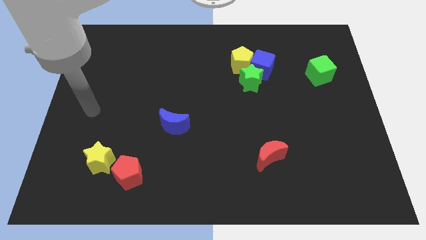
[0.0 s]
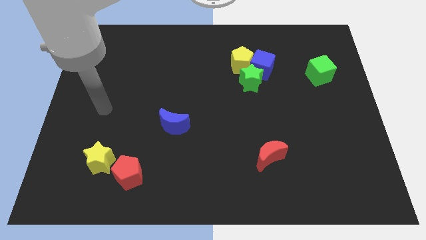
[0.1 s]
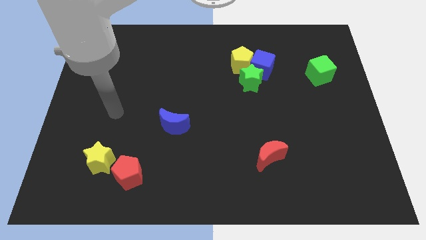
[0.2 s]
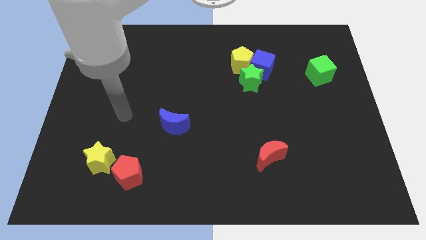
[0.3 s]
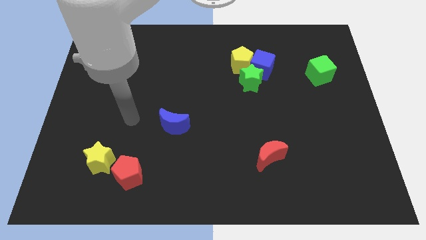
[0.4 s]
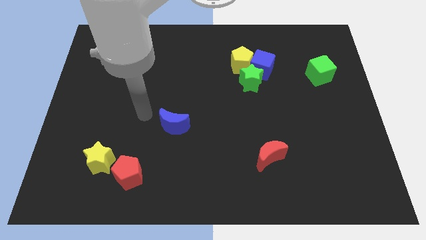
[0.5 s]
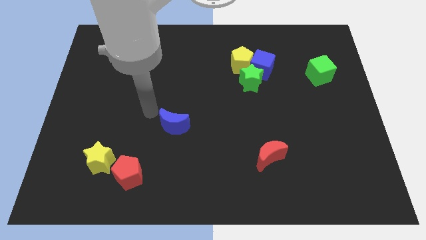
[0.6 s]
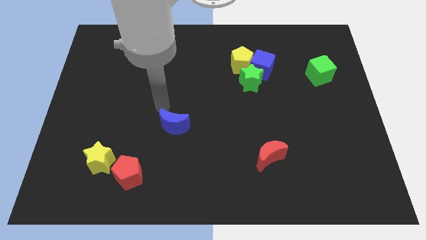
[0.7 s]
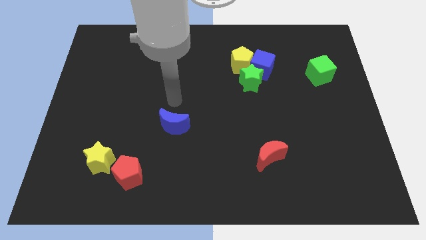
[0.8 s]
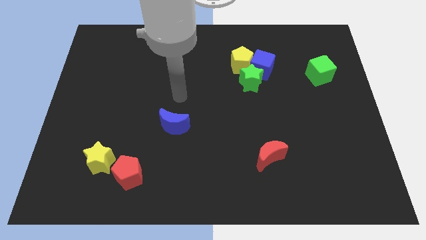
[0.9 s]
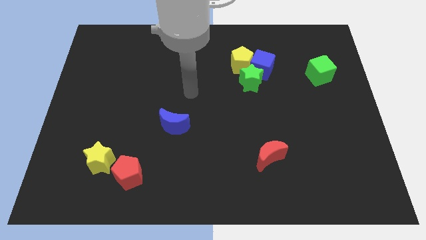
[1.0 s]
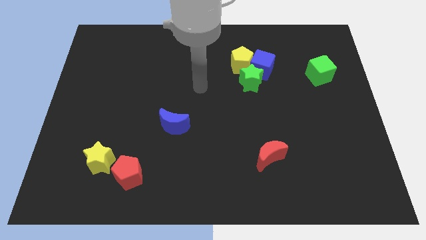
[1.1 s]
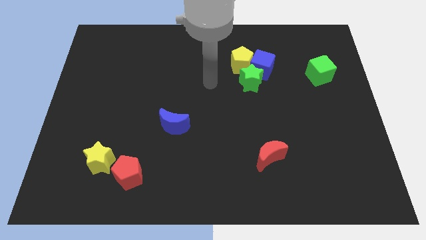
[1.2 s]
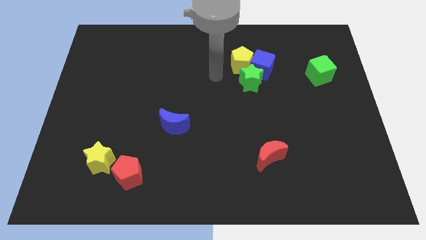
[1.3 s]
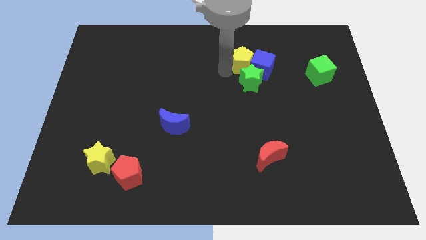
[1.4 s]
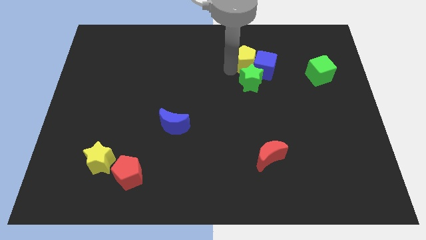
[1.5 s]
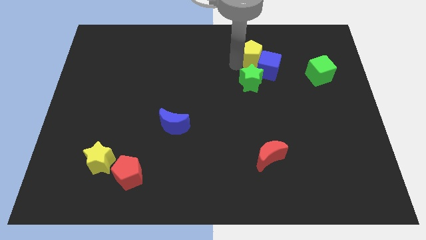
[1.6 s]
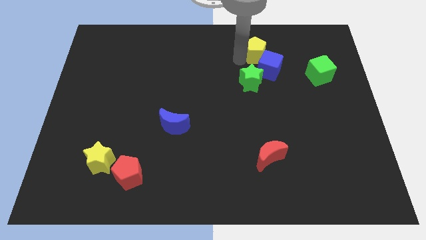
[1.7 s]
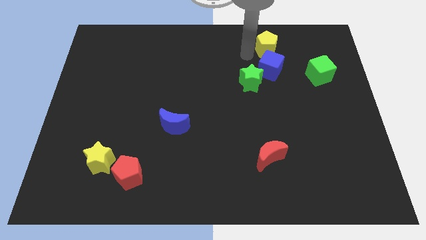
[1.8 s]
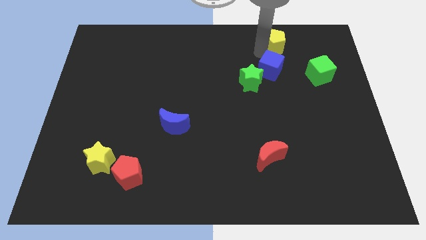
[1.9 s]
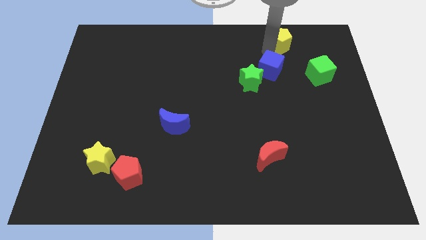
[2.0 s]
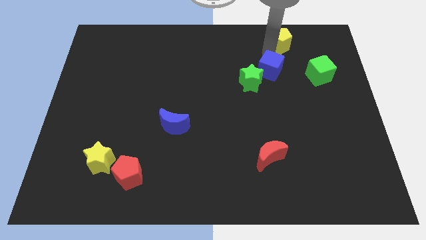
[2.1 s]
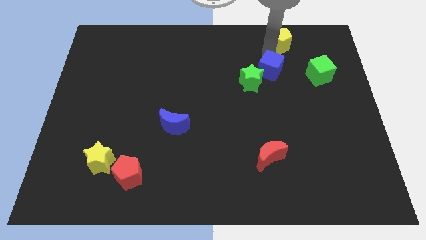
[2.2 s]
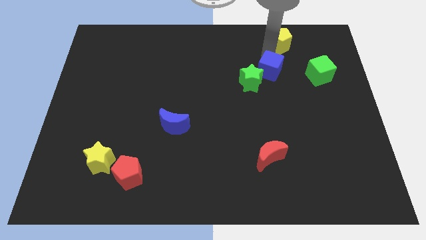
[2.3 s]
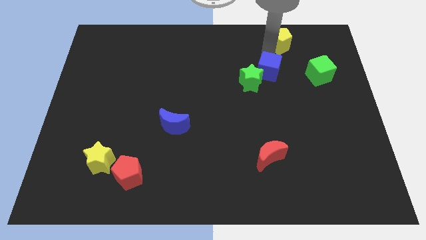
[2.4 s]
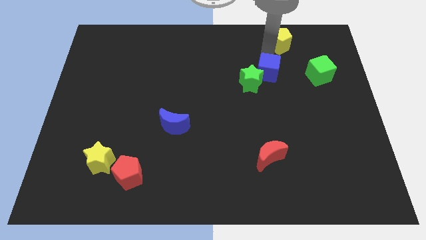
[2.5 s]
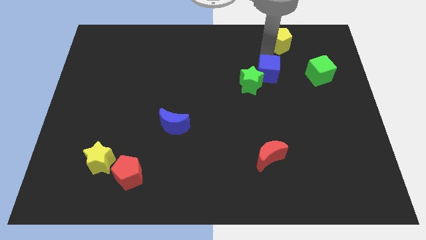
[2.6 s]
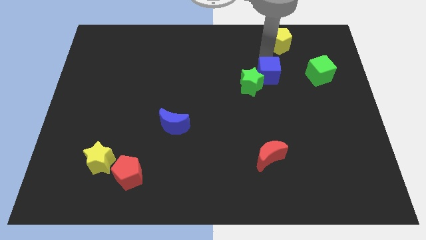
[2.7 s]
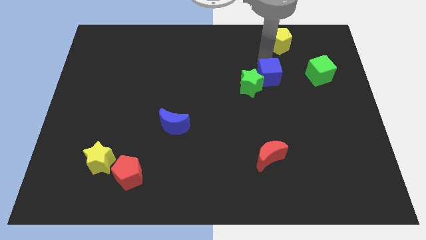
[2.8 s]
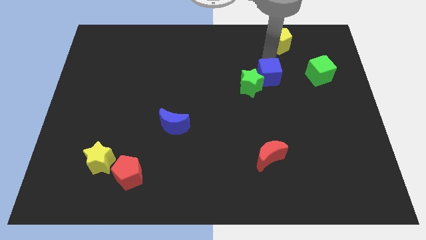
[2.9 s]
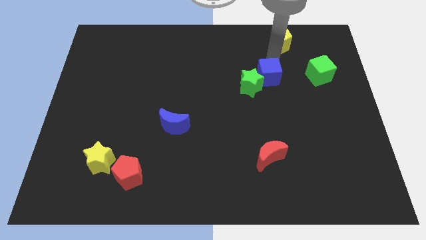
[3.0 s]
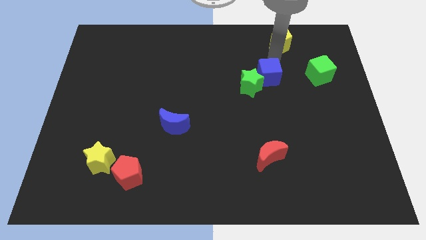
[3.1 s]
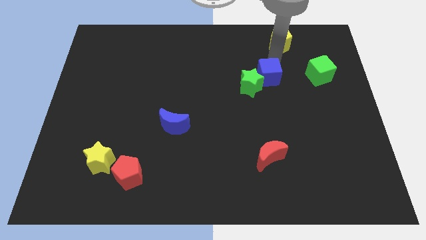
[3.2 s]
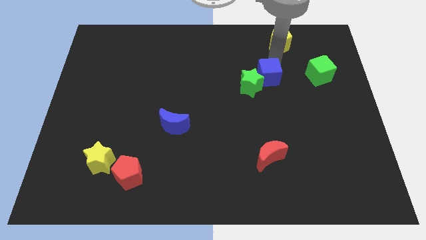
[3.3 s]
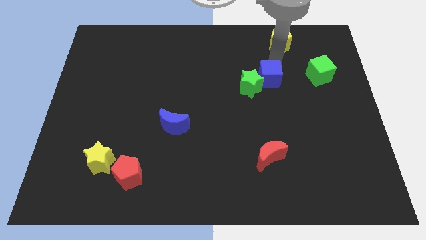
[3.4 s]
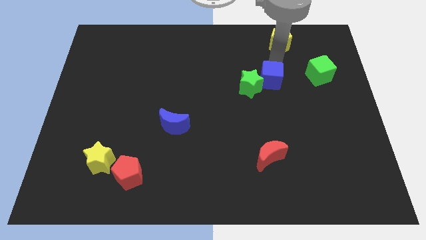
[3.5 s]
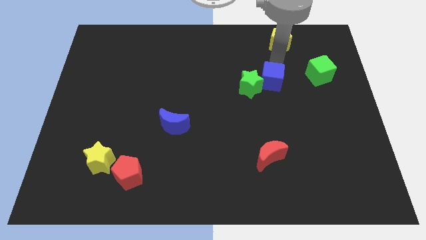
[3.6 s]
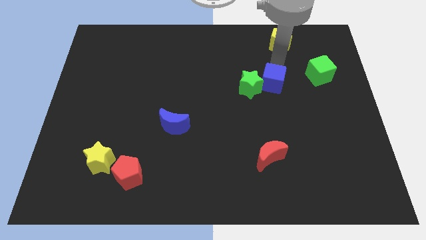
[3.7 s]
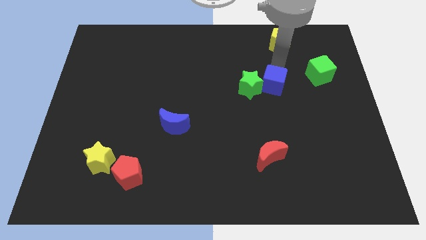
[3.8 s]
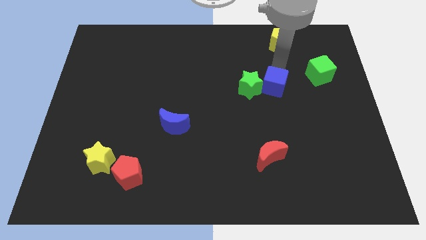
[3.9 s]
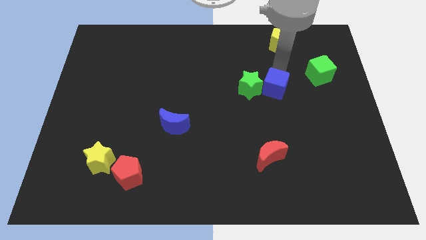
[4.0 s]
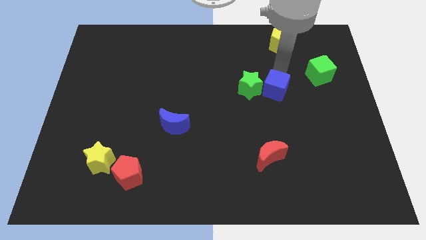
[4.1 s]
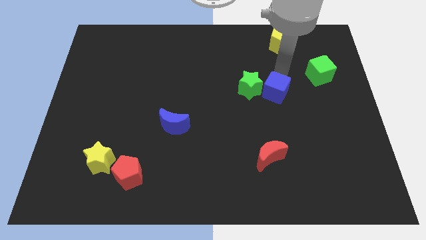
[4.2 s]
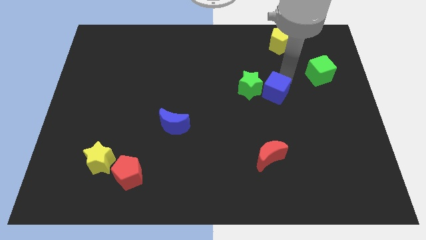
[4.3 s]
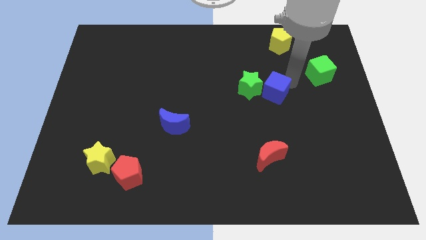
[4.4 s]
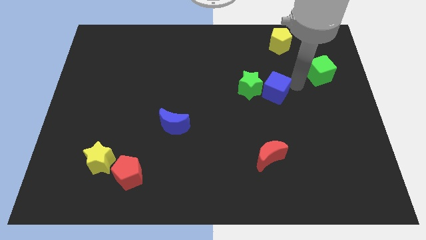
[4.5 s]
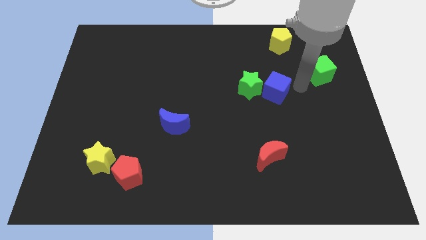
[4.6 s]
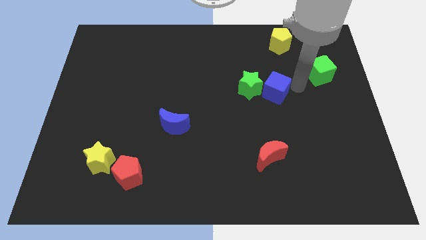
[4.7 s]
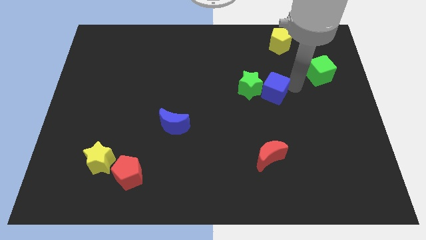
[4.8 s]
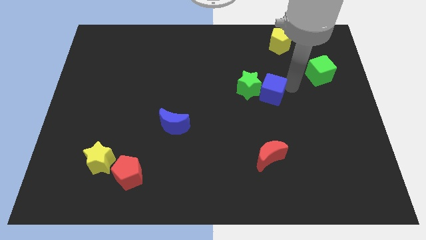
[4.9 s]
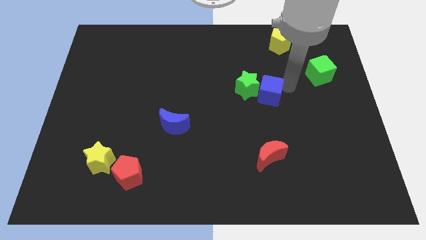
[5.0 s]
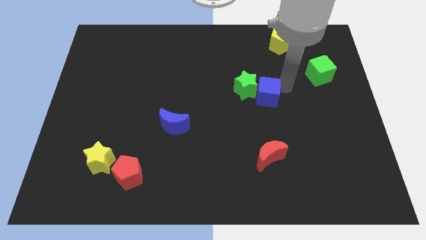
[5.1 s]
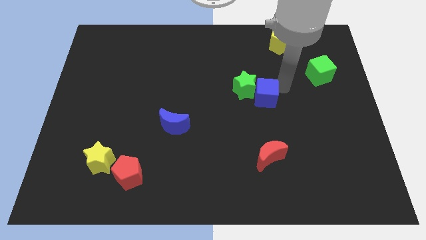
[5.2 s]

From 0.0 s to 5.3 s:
put the blue cube to the middle

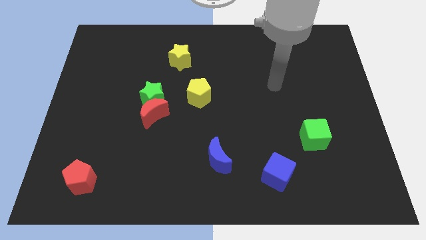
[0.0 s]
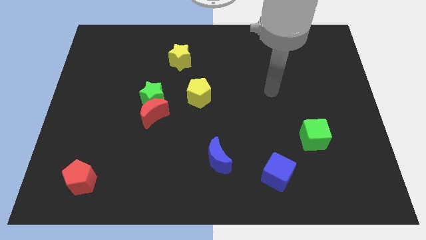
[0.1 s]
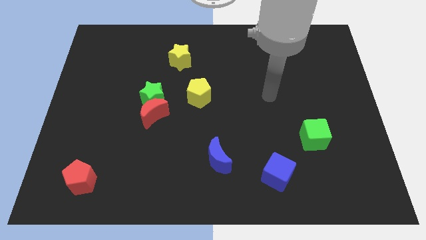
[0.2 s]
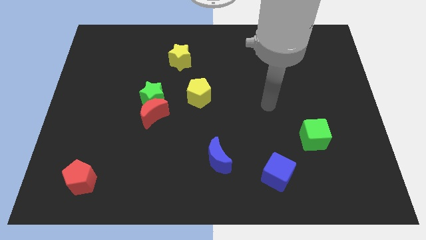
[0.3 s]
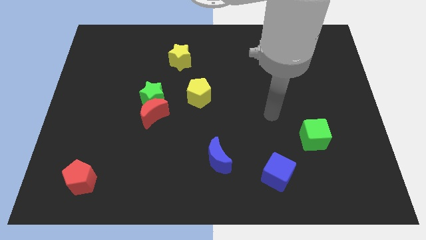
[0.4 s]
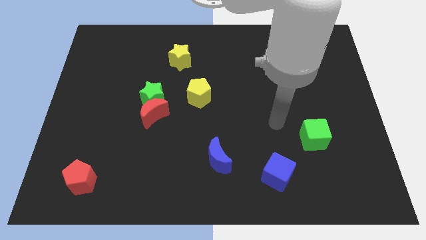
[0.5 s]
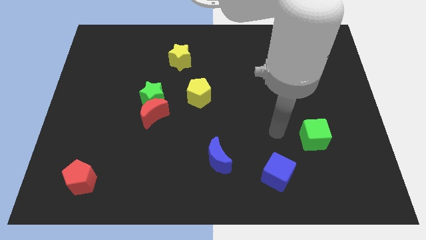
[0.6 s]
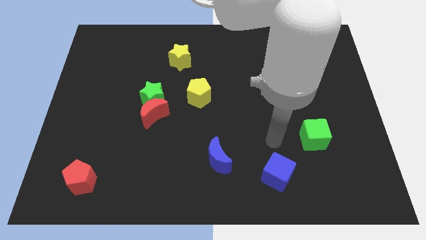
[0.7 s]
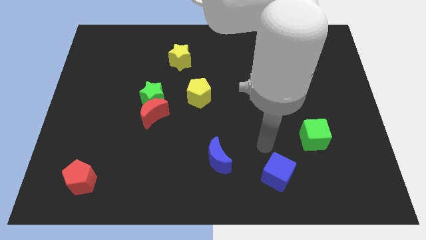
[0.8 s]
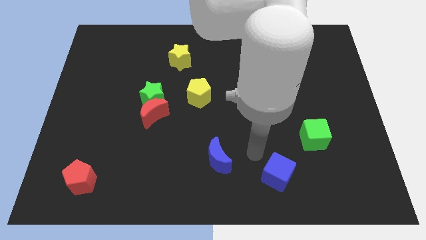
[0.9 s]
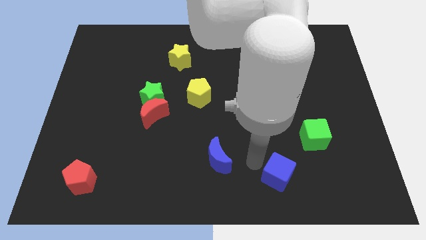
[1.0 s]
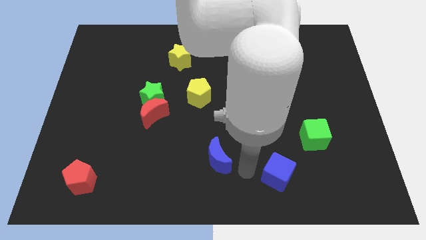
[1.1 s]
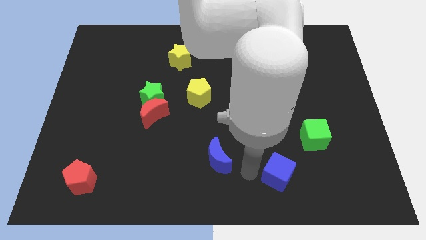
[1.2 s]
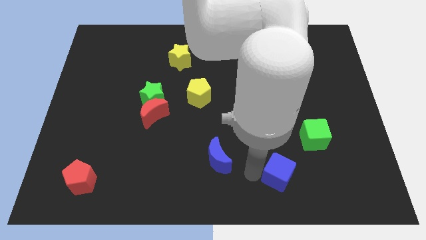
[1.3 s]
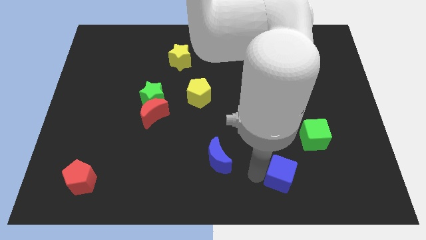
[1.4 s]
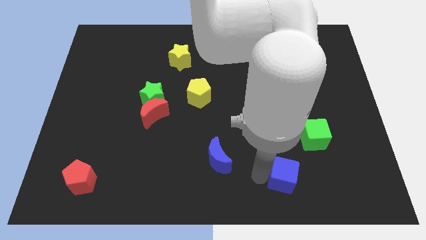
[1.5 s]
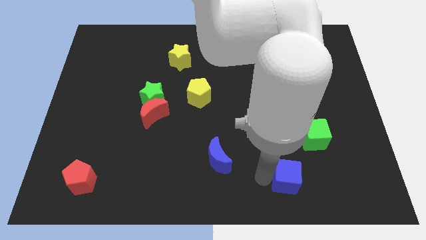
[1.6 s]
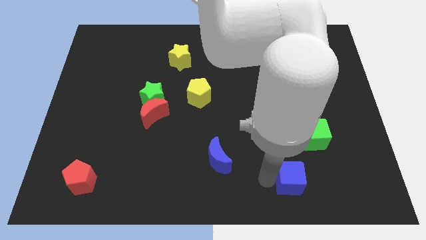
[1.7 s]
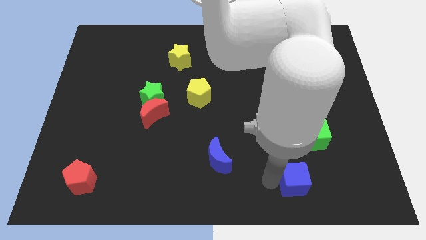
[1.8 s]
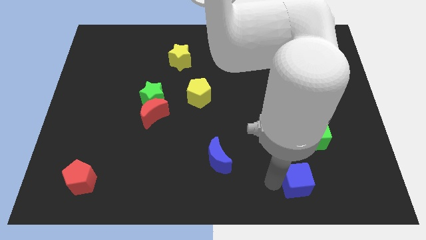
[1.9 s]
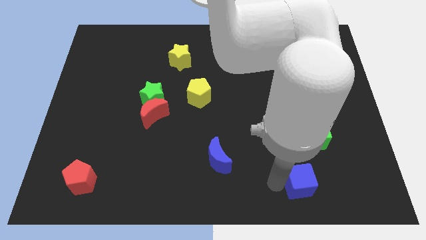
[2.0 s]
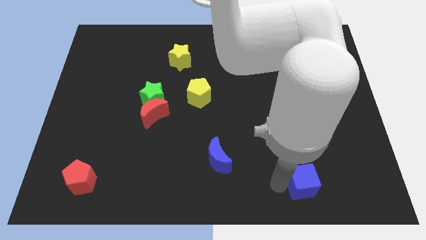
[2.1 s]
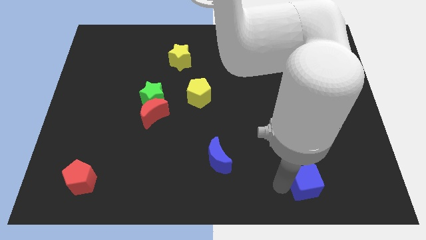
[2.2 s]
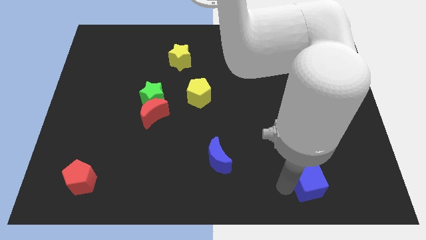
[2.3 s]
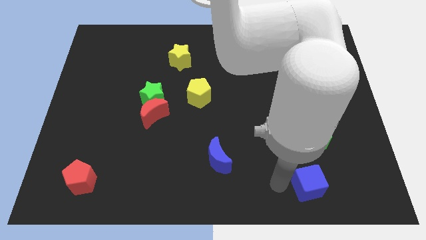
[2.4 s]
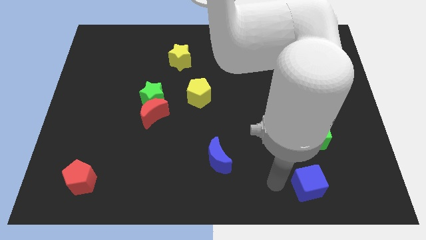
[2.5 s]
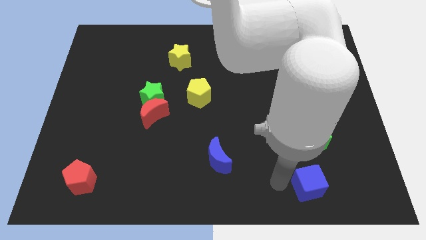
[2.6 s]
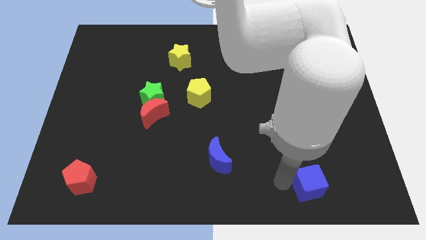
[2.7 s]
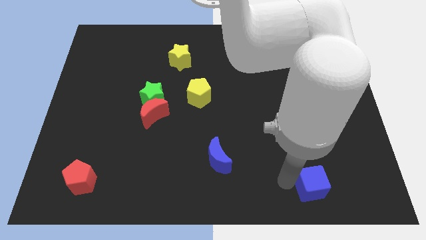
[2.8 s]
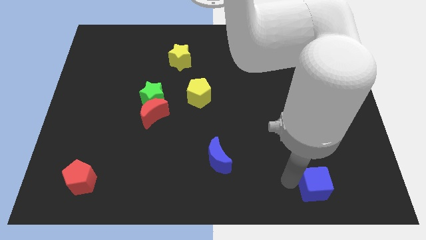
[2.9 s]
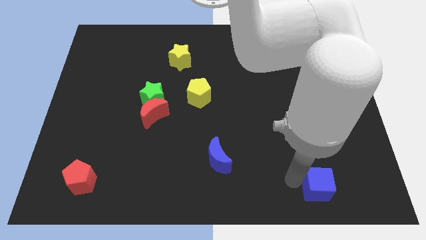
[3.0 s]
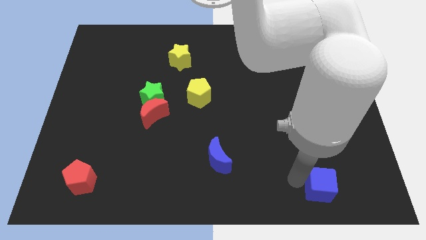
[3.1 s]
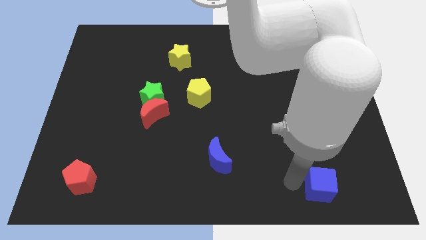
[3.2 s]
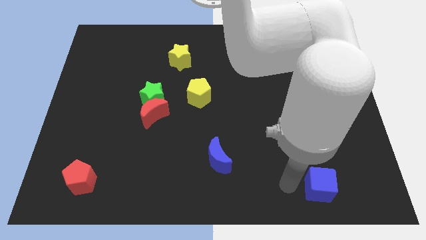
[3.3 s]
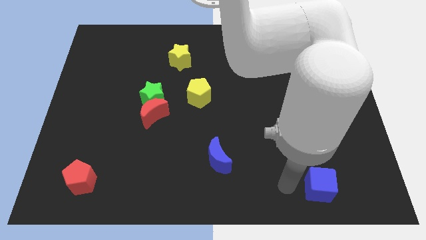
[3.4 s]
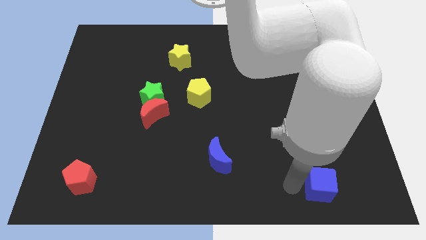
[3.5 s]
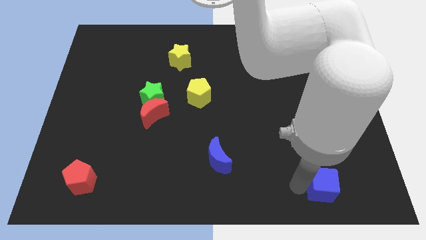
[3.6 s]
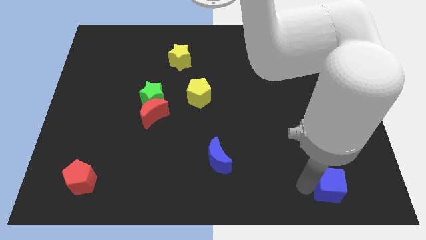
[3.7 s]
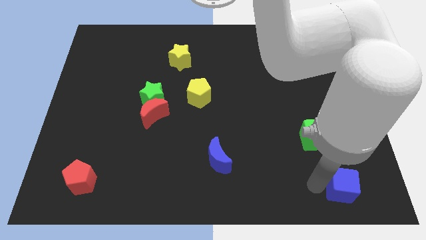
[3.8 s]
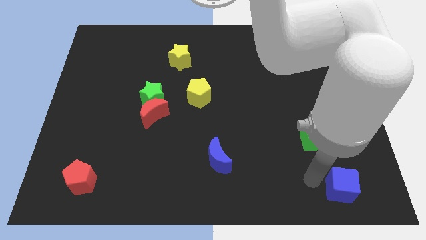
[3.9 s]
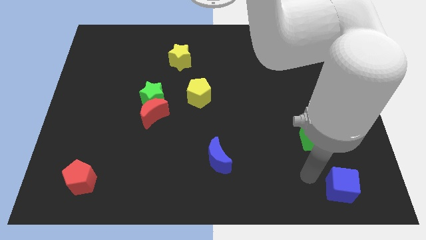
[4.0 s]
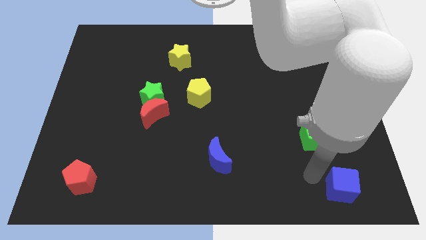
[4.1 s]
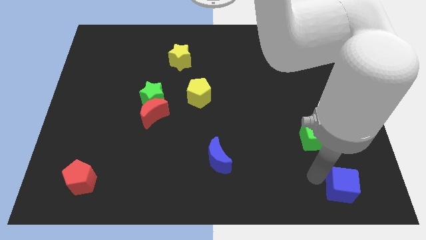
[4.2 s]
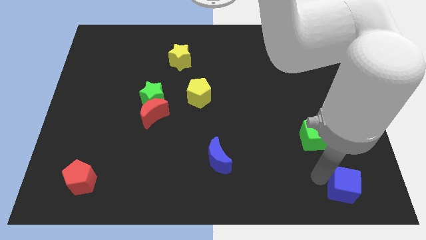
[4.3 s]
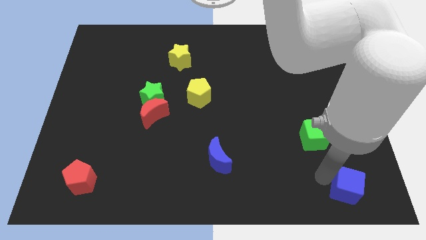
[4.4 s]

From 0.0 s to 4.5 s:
move the blue cube to the lower right corner
